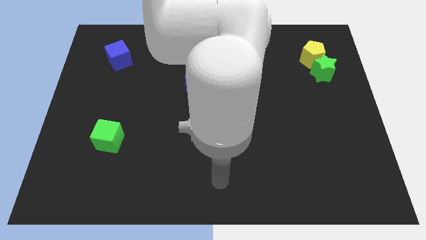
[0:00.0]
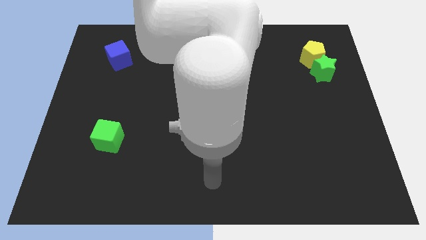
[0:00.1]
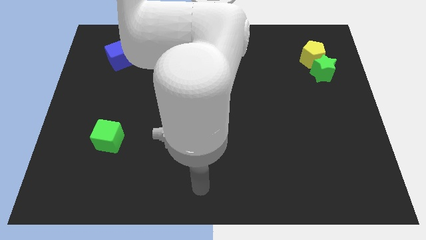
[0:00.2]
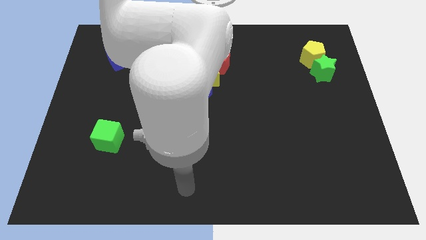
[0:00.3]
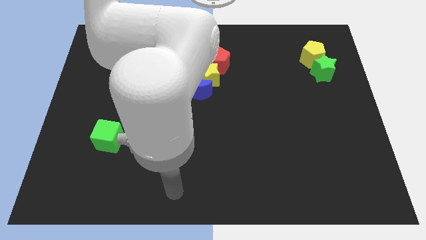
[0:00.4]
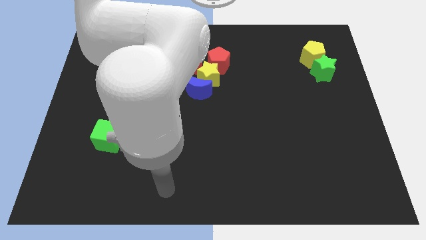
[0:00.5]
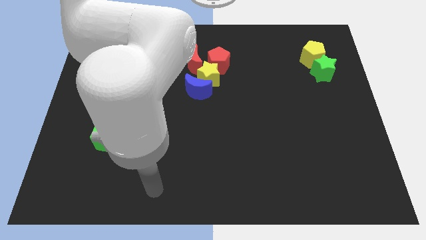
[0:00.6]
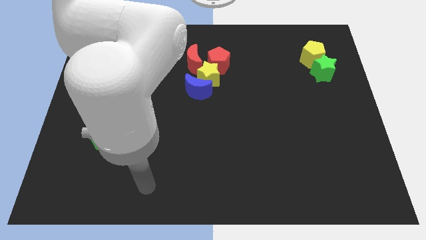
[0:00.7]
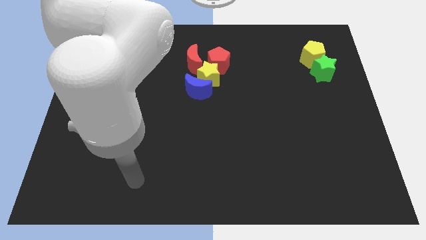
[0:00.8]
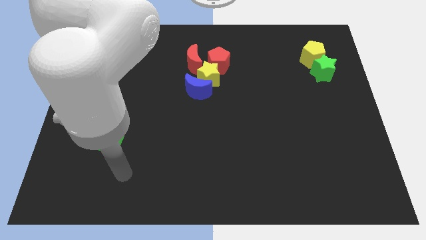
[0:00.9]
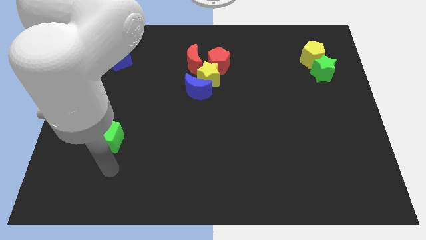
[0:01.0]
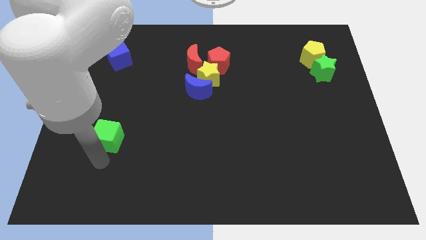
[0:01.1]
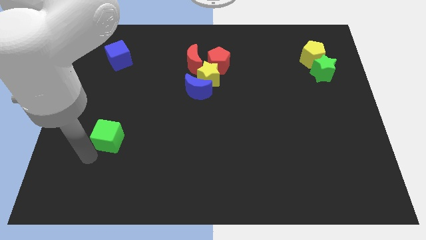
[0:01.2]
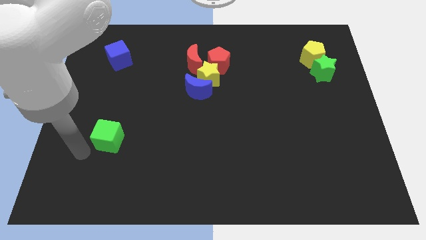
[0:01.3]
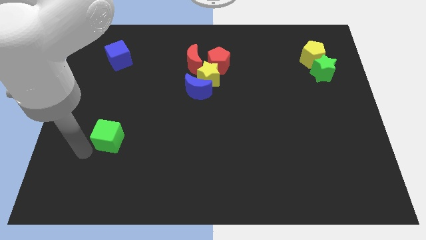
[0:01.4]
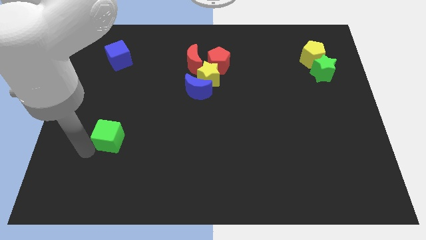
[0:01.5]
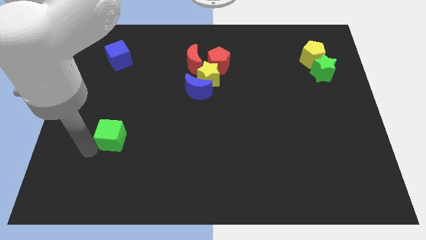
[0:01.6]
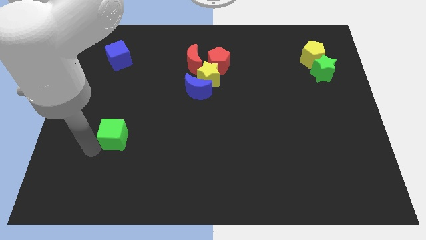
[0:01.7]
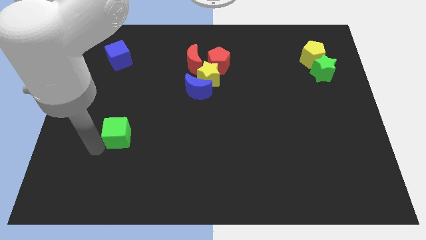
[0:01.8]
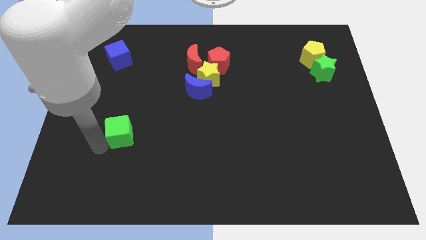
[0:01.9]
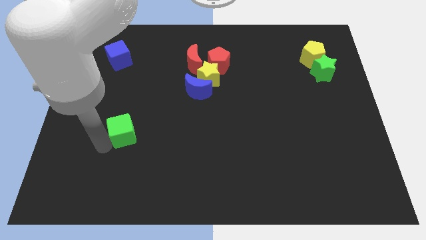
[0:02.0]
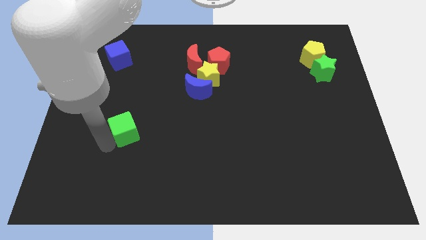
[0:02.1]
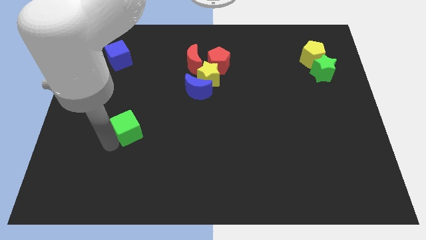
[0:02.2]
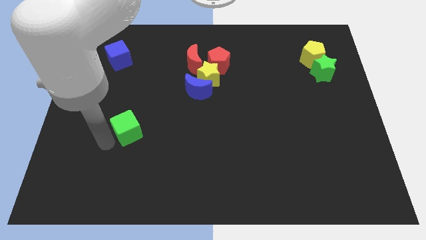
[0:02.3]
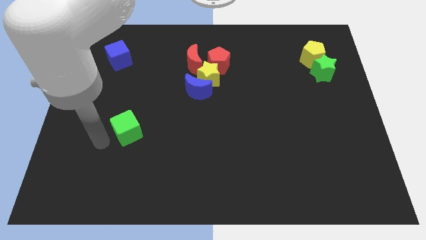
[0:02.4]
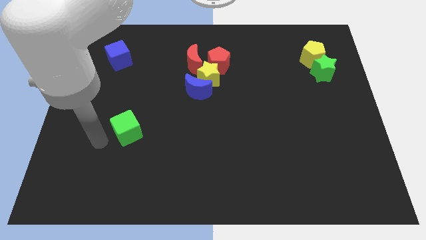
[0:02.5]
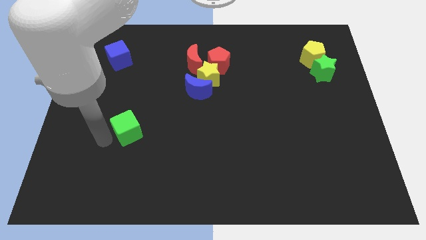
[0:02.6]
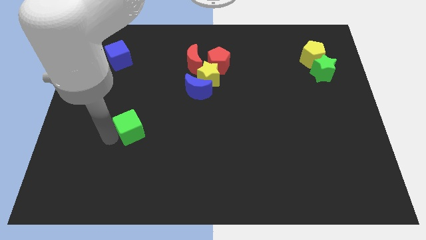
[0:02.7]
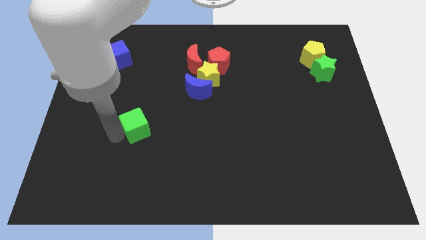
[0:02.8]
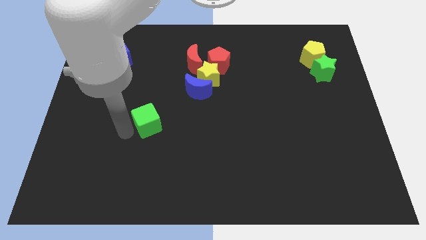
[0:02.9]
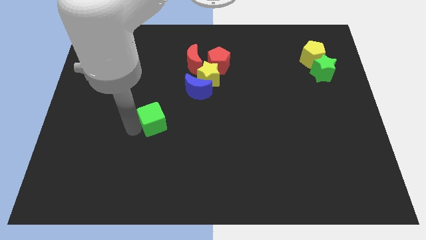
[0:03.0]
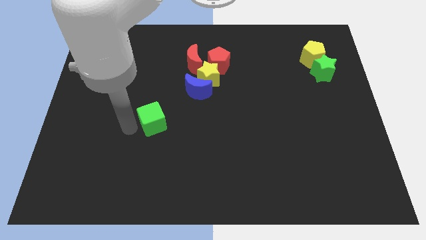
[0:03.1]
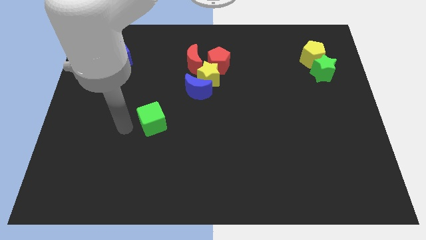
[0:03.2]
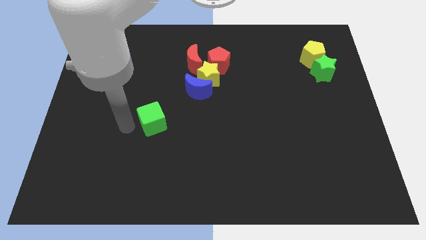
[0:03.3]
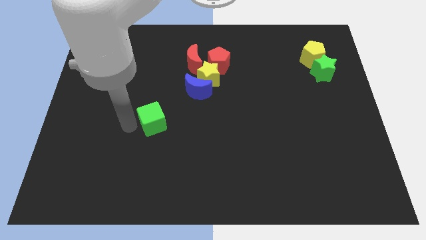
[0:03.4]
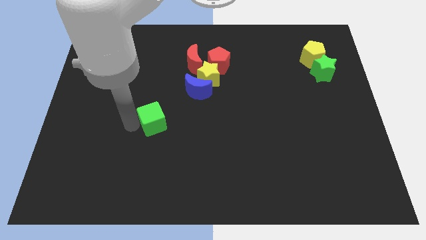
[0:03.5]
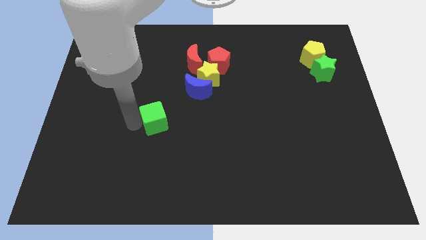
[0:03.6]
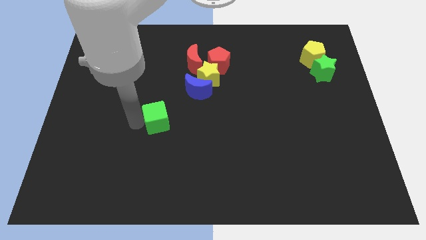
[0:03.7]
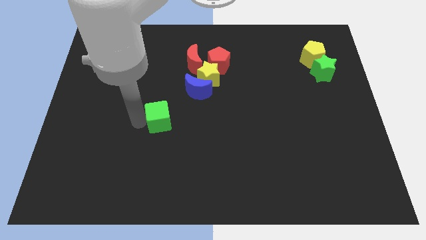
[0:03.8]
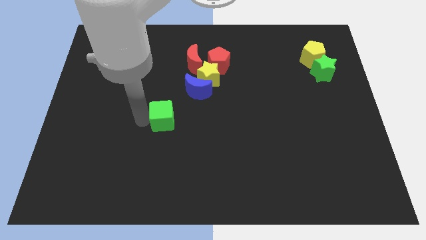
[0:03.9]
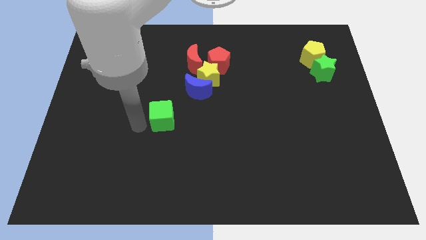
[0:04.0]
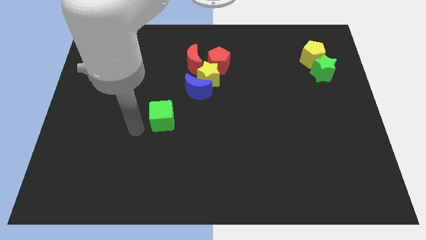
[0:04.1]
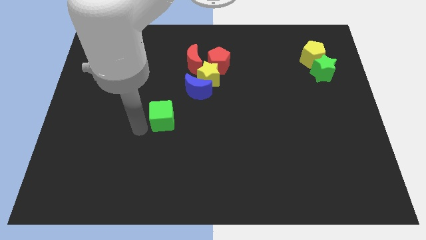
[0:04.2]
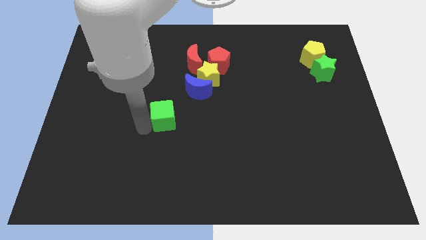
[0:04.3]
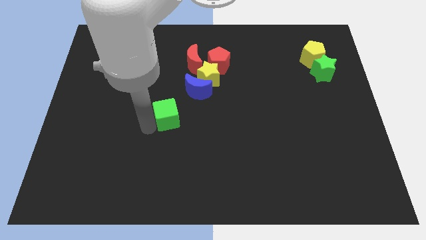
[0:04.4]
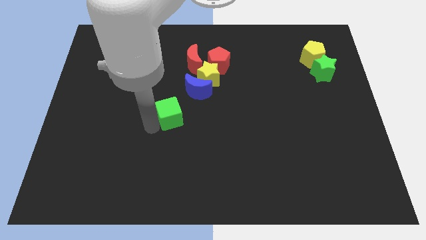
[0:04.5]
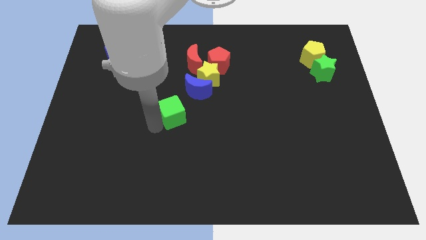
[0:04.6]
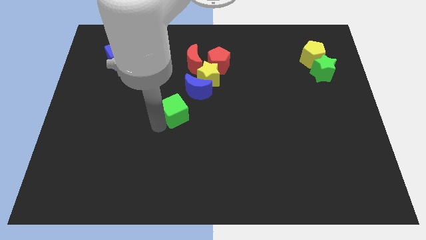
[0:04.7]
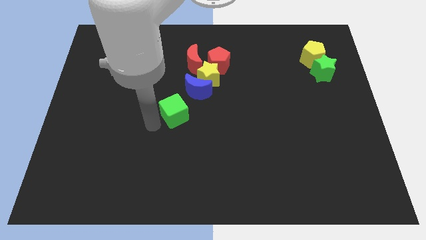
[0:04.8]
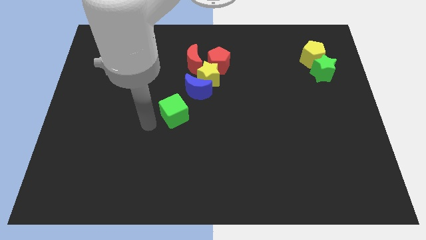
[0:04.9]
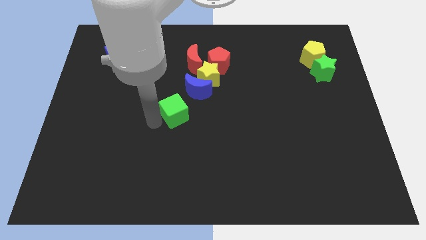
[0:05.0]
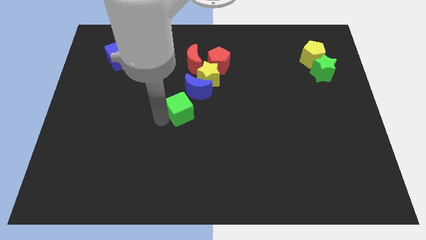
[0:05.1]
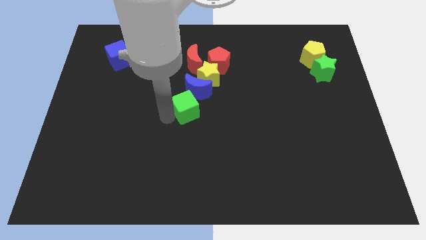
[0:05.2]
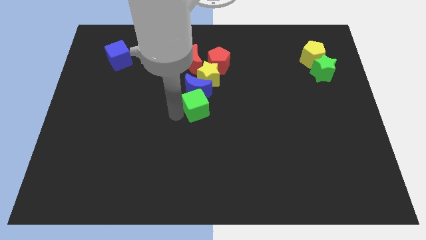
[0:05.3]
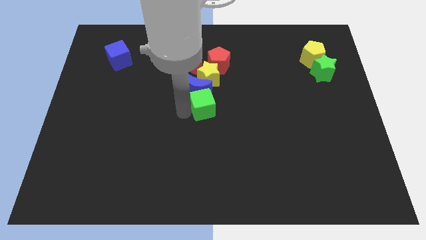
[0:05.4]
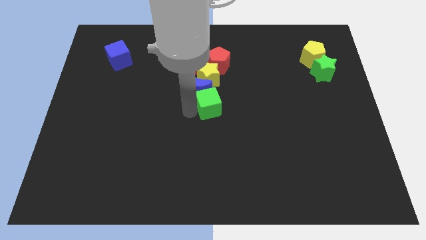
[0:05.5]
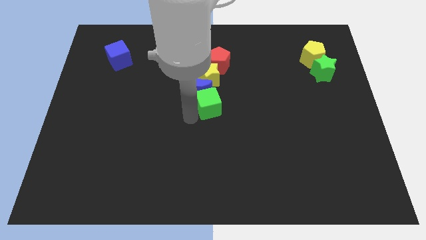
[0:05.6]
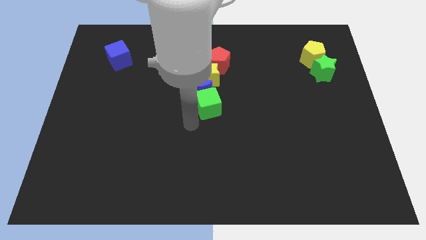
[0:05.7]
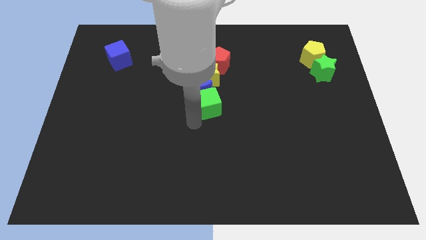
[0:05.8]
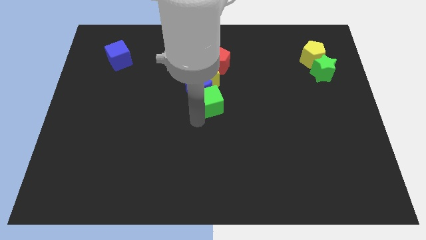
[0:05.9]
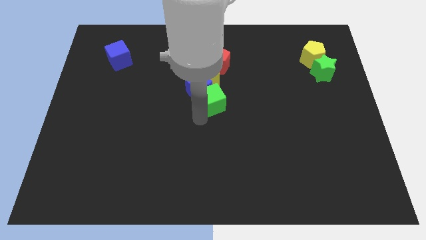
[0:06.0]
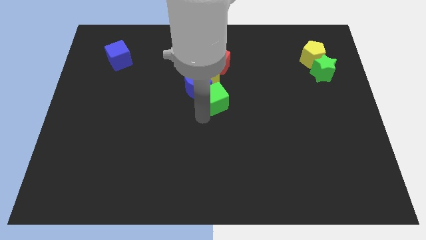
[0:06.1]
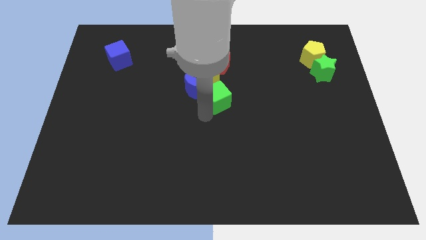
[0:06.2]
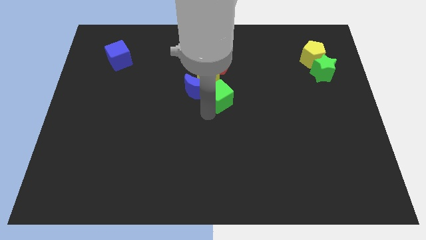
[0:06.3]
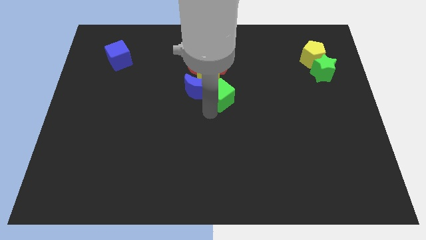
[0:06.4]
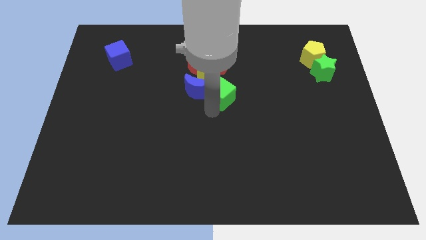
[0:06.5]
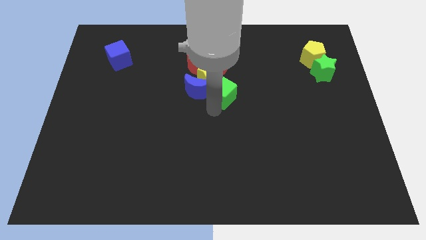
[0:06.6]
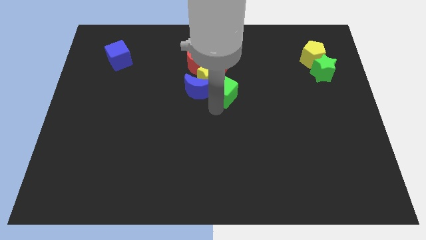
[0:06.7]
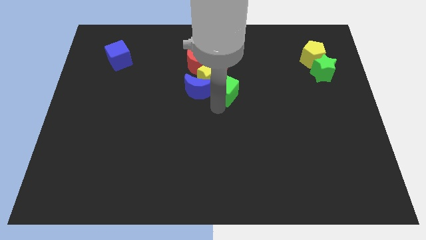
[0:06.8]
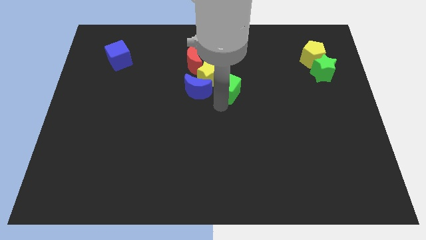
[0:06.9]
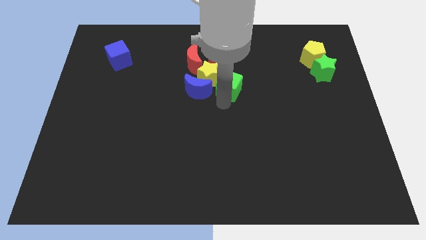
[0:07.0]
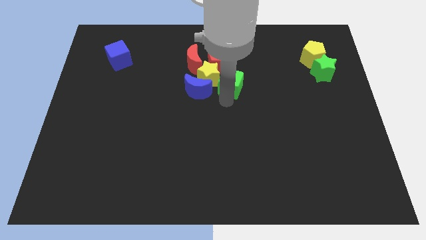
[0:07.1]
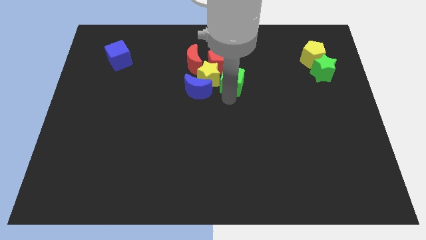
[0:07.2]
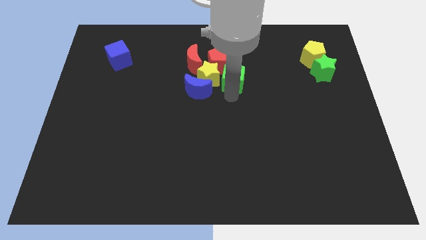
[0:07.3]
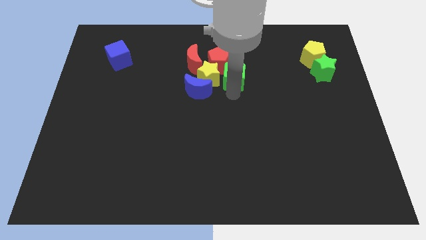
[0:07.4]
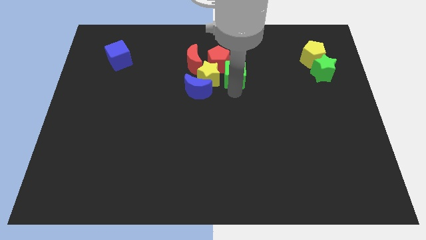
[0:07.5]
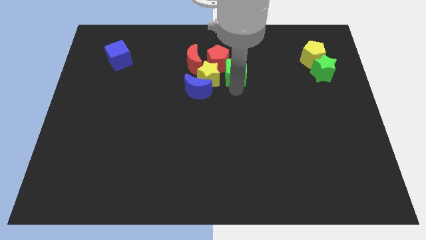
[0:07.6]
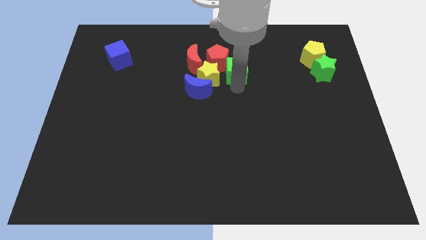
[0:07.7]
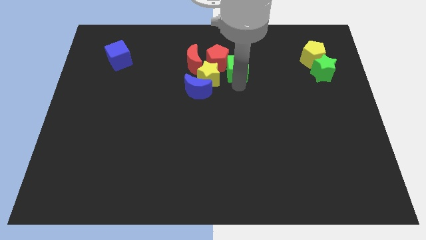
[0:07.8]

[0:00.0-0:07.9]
push the green cube to the red pentagon

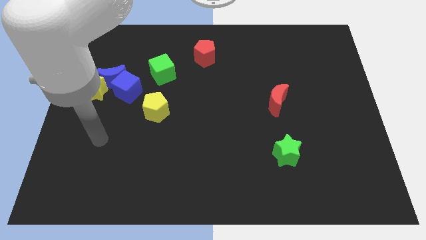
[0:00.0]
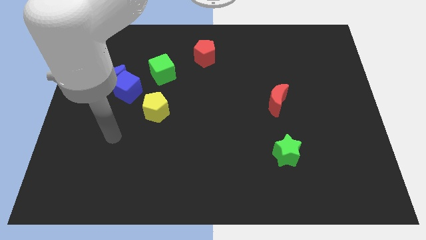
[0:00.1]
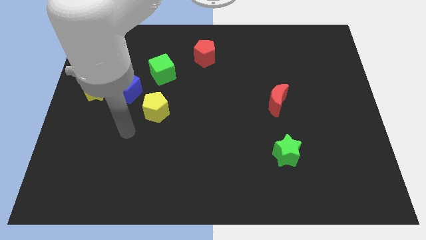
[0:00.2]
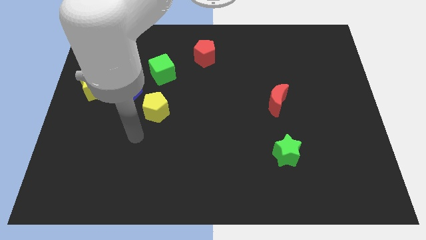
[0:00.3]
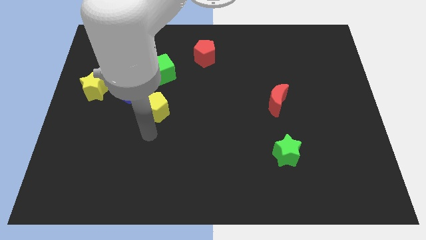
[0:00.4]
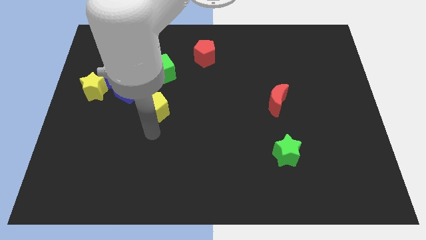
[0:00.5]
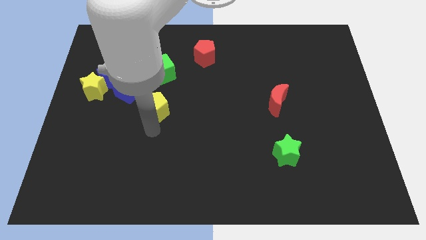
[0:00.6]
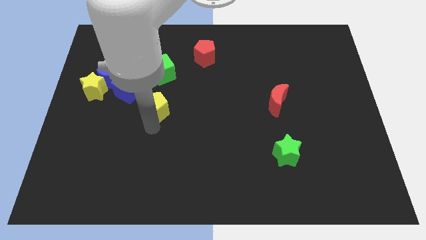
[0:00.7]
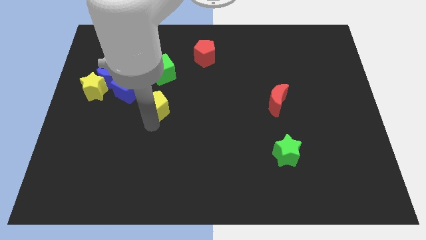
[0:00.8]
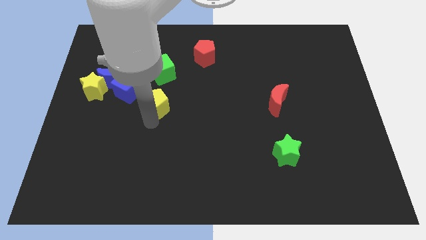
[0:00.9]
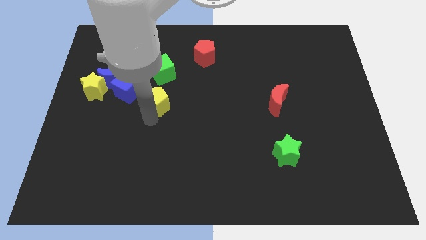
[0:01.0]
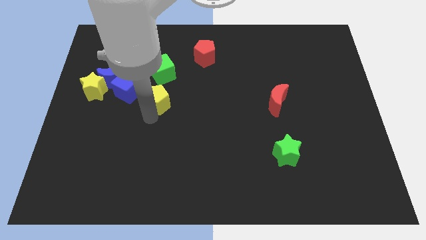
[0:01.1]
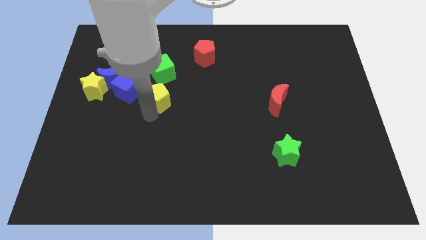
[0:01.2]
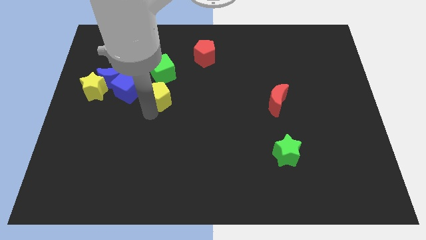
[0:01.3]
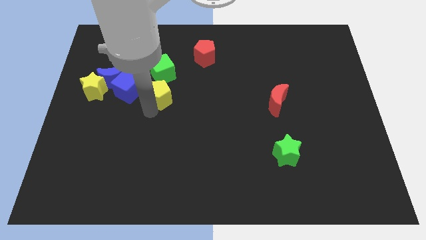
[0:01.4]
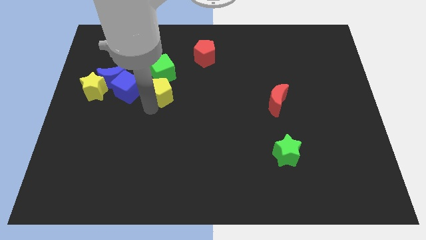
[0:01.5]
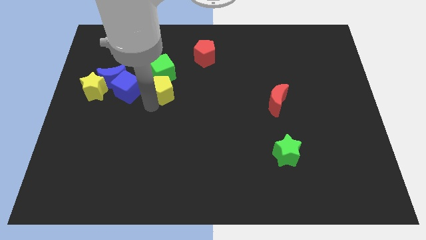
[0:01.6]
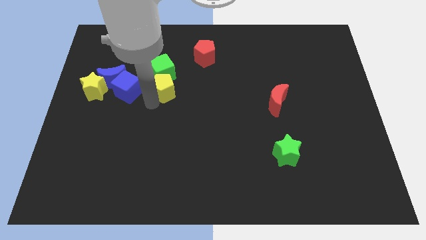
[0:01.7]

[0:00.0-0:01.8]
move the yellow pentagon next to the green cube
